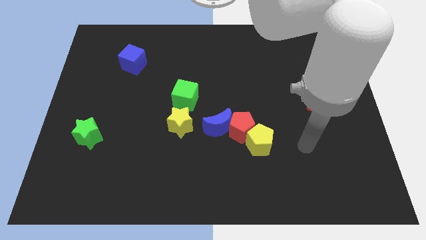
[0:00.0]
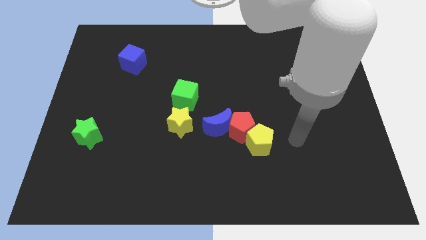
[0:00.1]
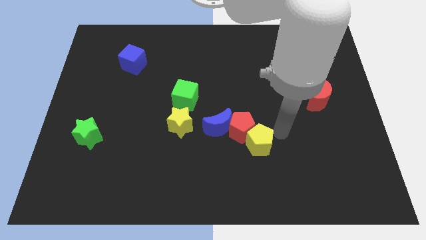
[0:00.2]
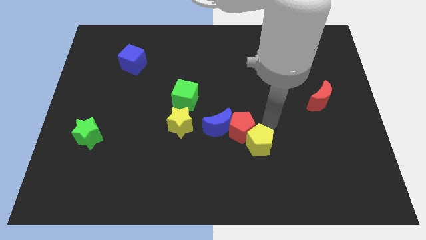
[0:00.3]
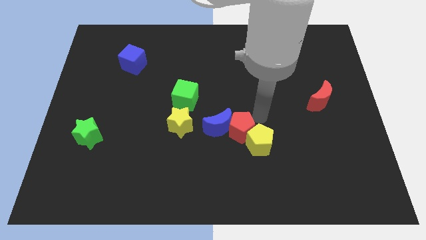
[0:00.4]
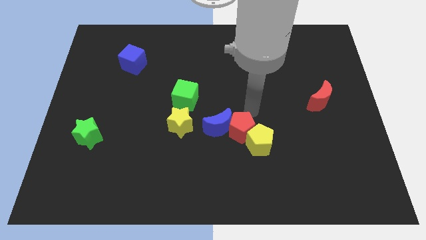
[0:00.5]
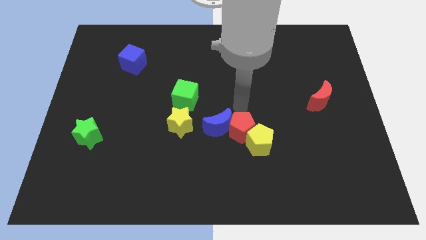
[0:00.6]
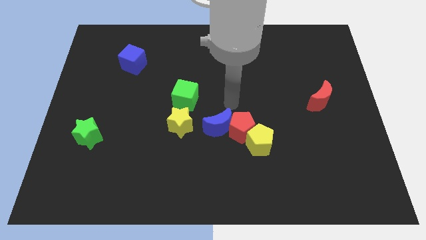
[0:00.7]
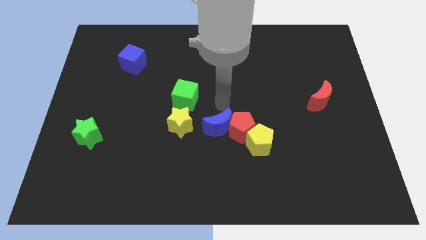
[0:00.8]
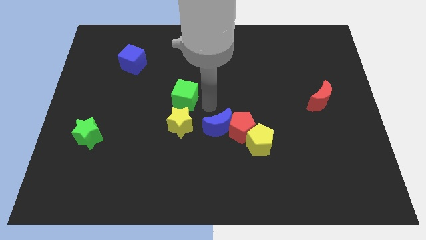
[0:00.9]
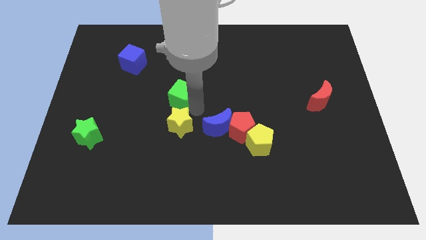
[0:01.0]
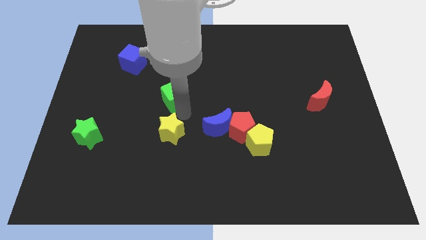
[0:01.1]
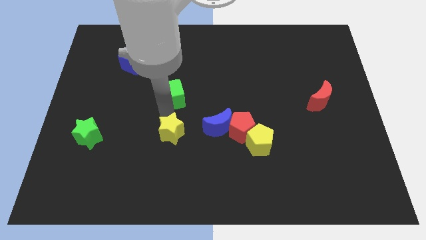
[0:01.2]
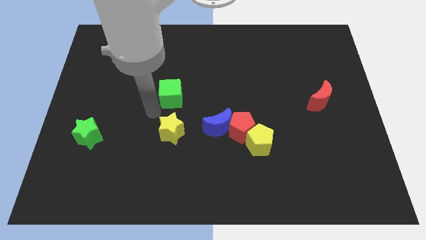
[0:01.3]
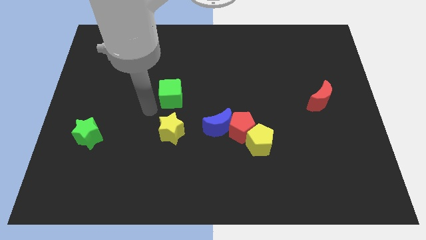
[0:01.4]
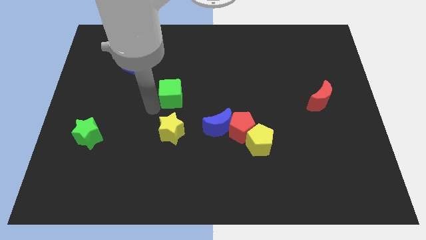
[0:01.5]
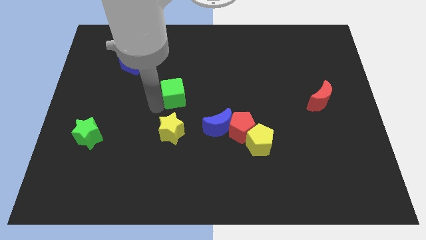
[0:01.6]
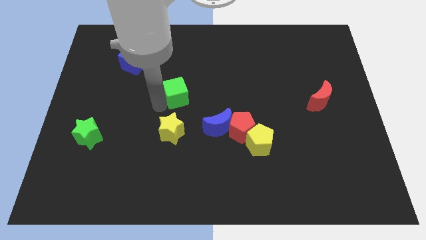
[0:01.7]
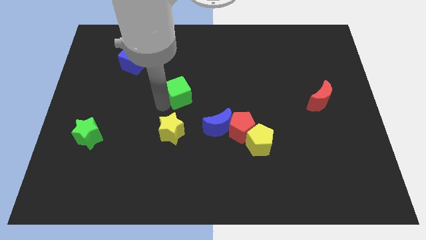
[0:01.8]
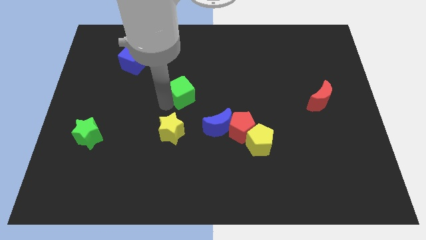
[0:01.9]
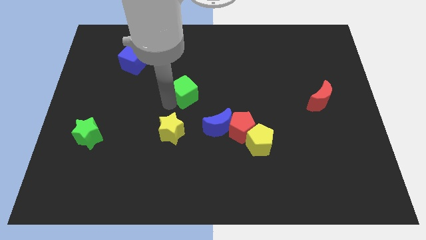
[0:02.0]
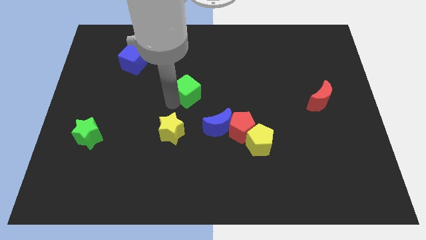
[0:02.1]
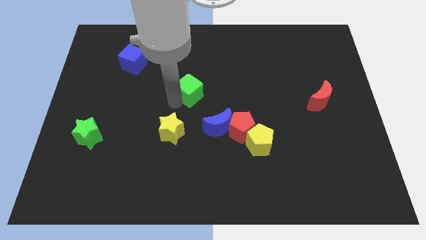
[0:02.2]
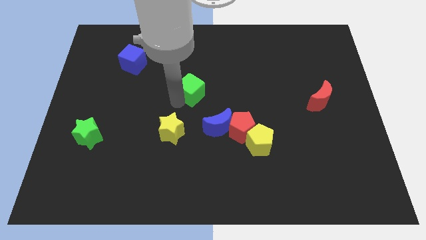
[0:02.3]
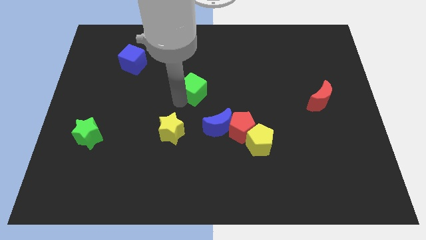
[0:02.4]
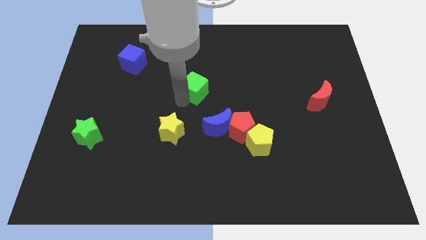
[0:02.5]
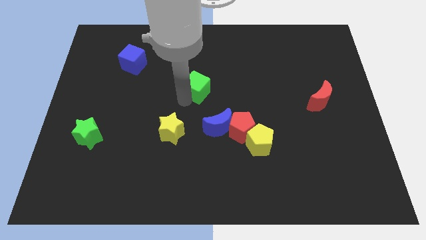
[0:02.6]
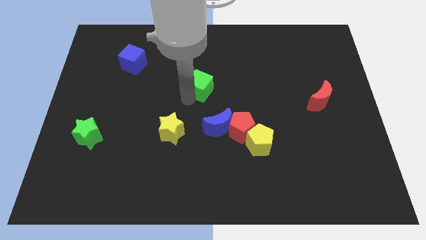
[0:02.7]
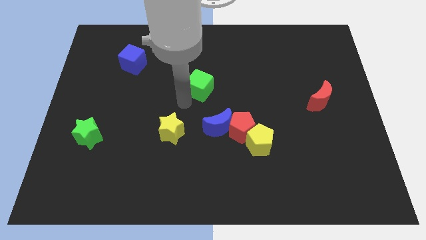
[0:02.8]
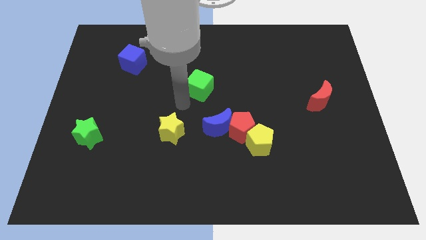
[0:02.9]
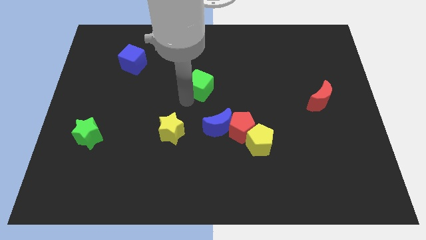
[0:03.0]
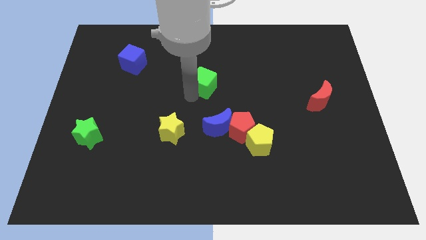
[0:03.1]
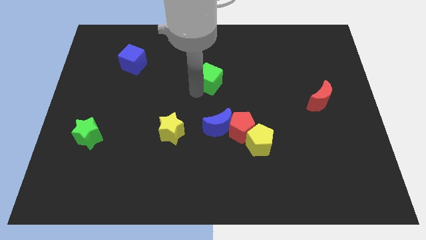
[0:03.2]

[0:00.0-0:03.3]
slightly slide the green cube upwards and then to the right

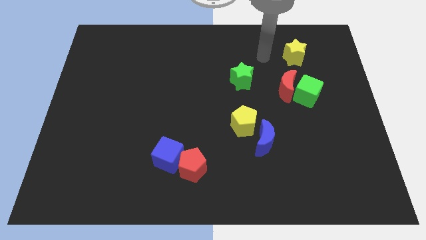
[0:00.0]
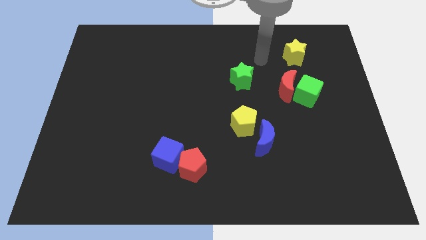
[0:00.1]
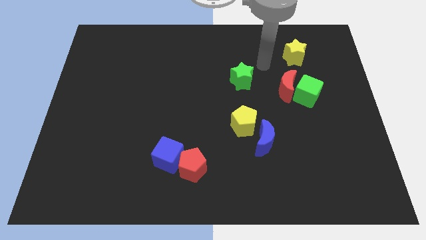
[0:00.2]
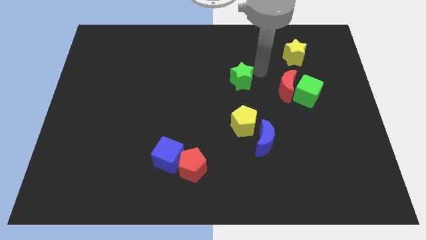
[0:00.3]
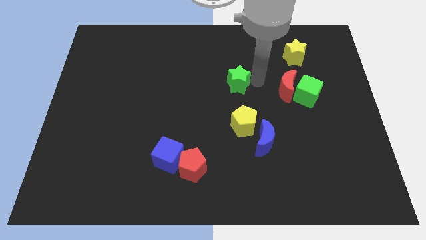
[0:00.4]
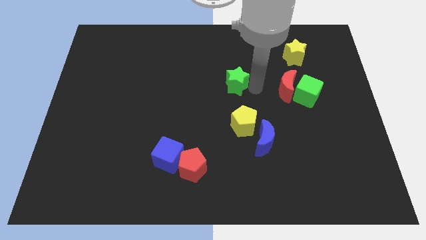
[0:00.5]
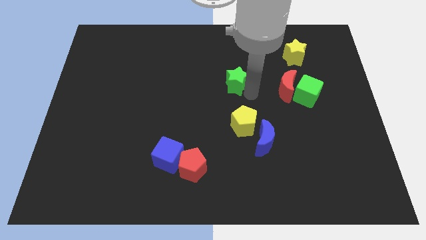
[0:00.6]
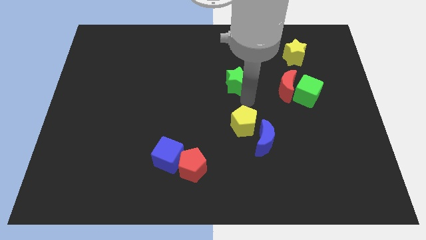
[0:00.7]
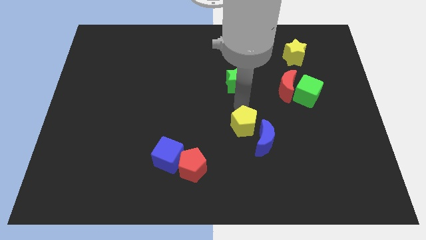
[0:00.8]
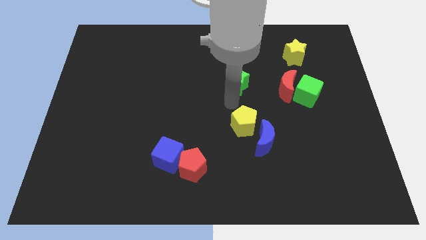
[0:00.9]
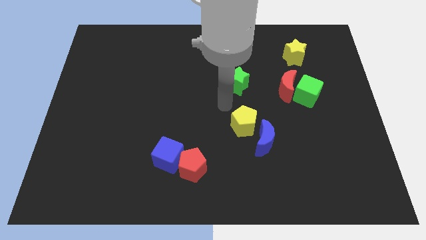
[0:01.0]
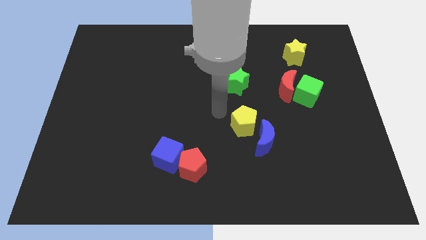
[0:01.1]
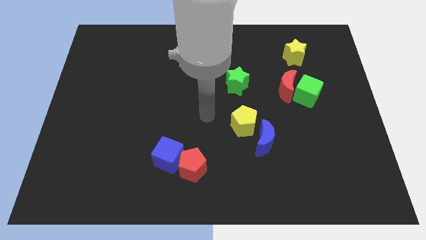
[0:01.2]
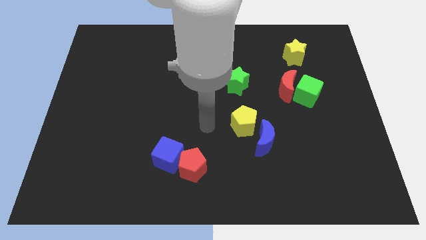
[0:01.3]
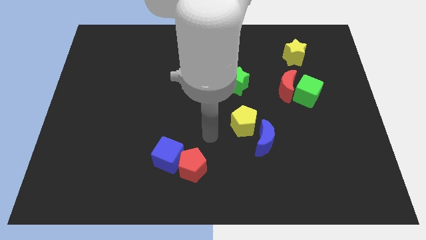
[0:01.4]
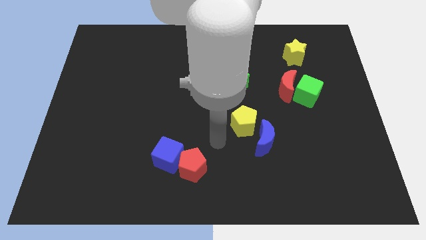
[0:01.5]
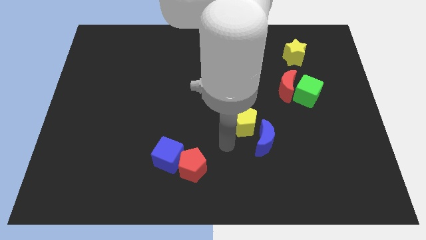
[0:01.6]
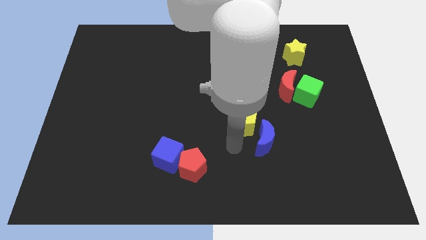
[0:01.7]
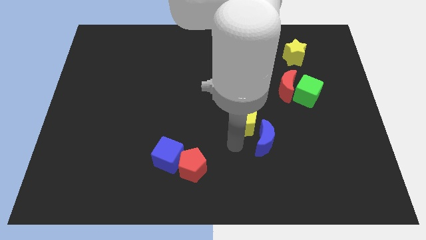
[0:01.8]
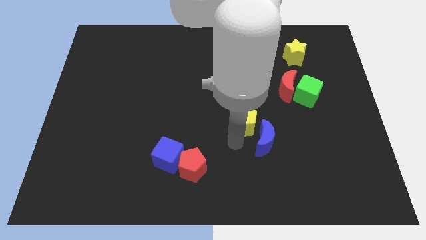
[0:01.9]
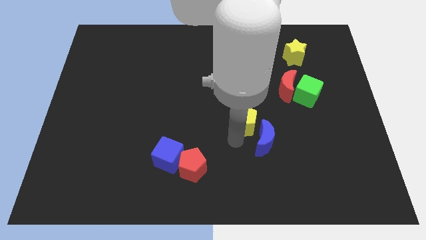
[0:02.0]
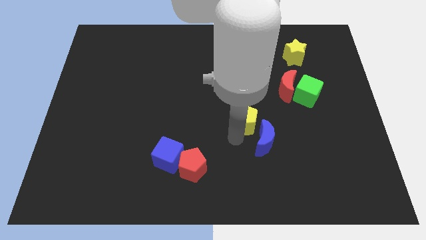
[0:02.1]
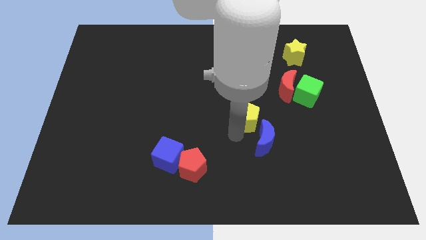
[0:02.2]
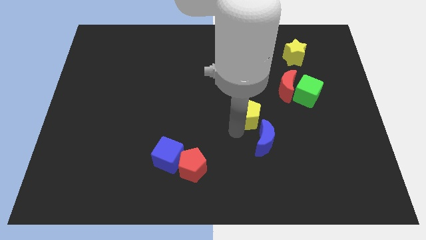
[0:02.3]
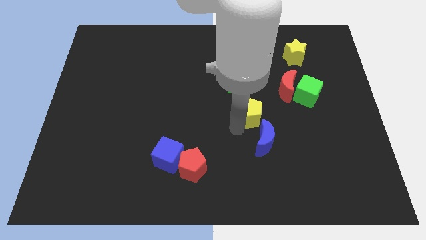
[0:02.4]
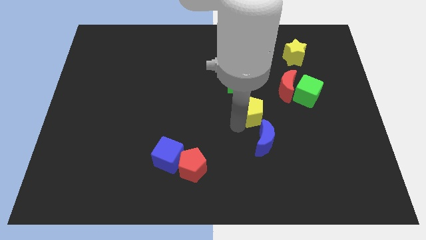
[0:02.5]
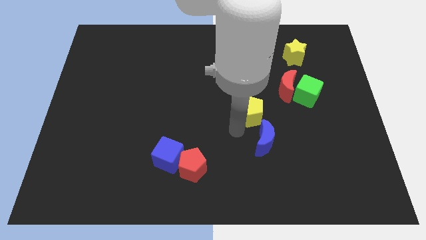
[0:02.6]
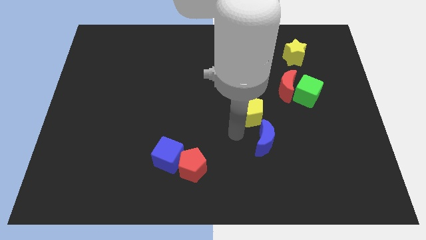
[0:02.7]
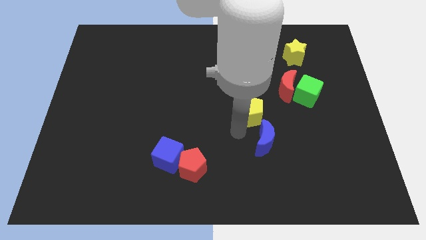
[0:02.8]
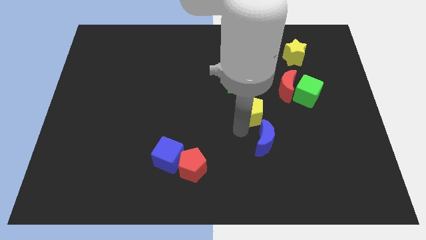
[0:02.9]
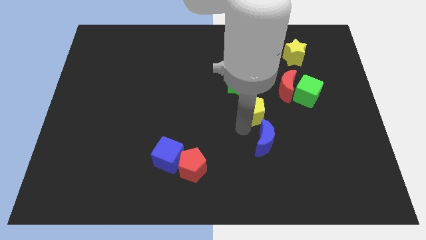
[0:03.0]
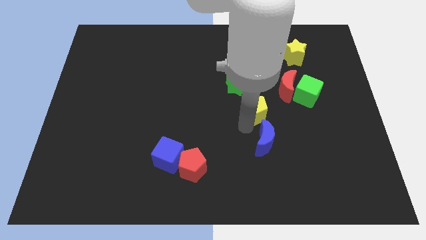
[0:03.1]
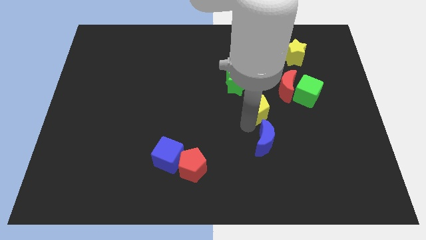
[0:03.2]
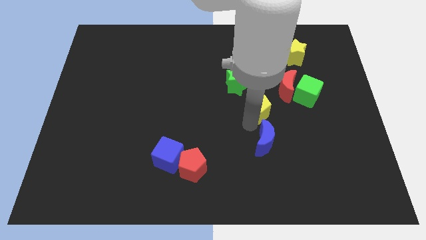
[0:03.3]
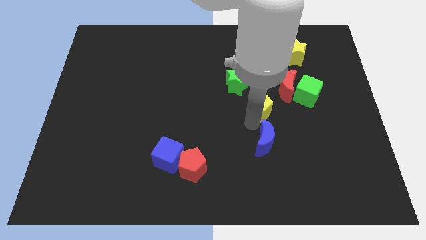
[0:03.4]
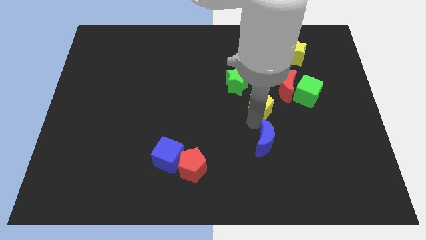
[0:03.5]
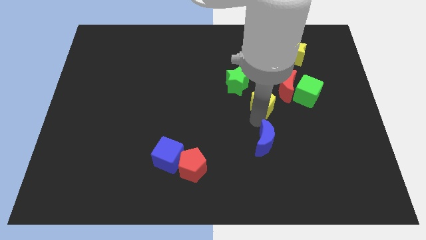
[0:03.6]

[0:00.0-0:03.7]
slightly push the yellow pentagon diagonally upwards and right

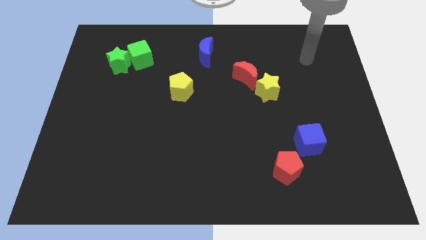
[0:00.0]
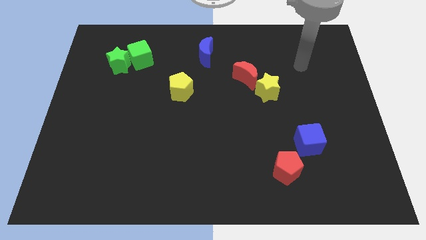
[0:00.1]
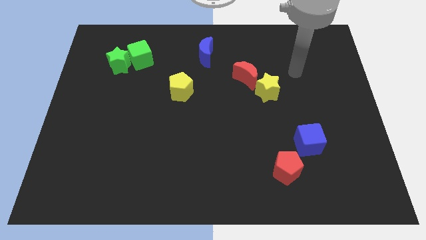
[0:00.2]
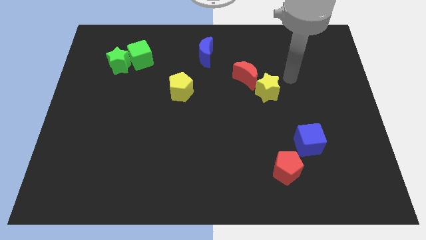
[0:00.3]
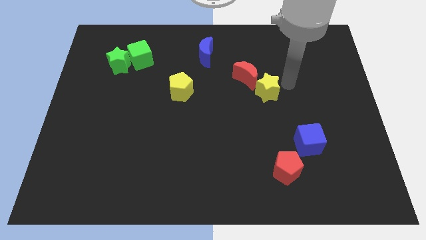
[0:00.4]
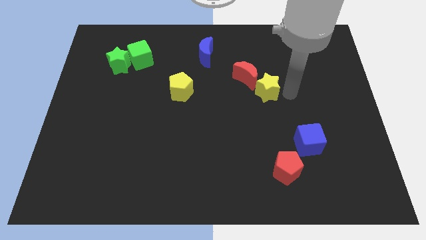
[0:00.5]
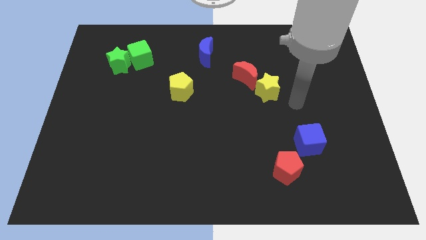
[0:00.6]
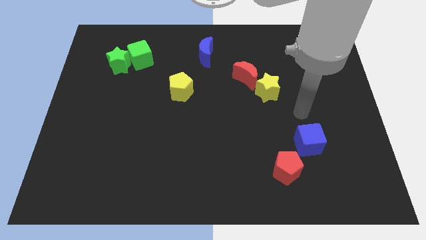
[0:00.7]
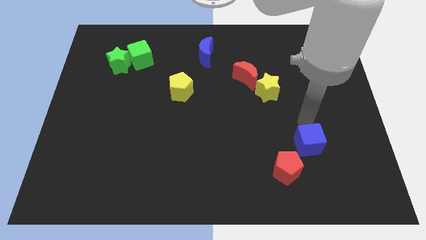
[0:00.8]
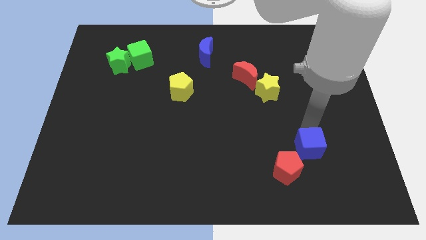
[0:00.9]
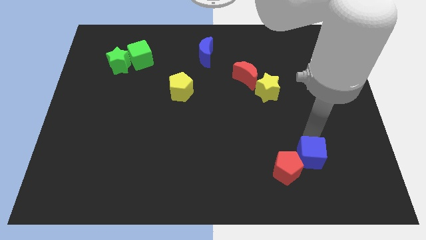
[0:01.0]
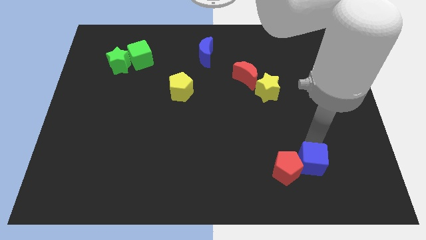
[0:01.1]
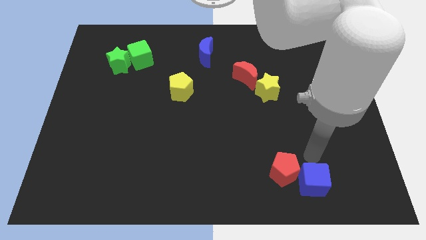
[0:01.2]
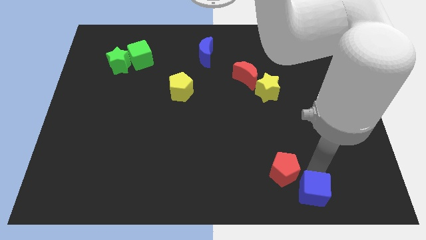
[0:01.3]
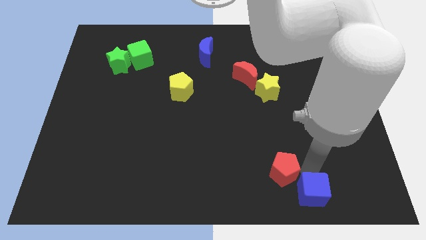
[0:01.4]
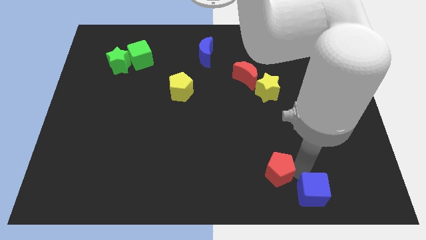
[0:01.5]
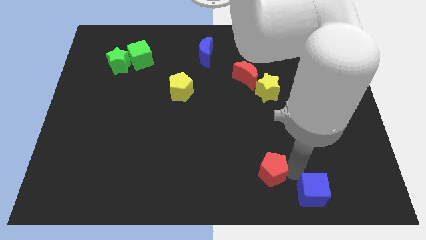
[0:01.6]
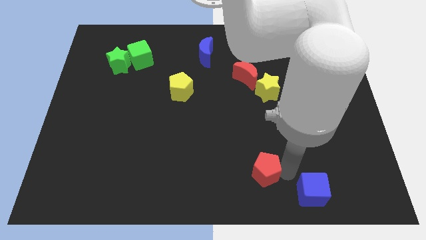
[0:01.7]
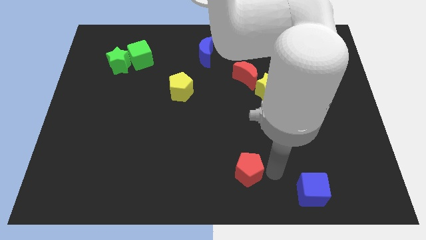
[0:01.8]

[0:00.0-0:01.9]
move the red pentagon a little to the left
